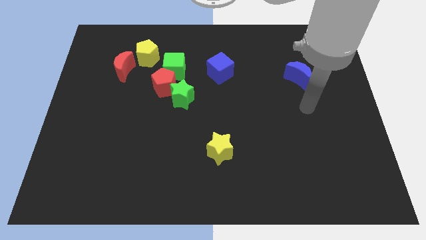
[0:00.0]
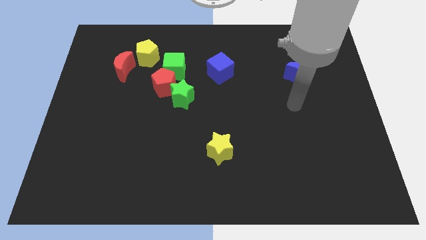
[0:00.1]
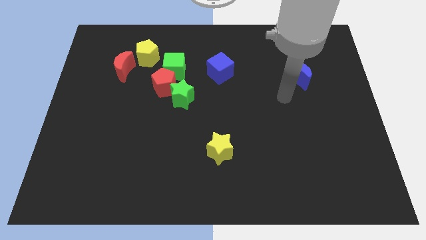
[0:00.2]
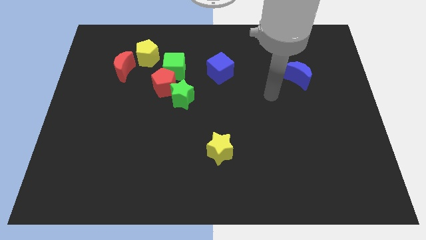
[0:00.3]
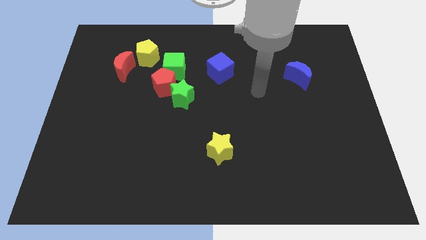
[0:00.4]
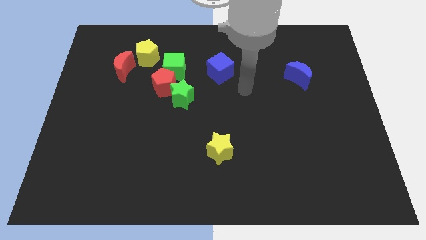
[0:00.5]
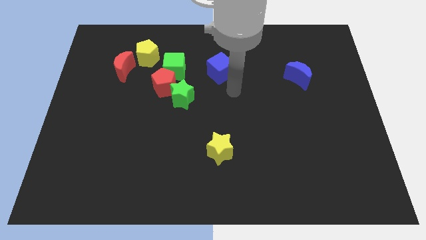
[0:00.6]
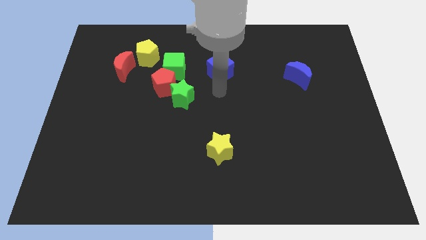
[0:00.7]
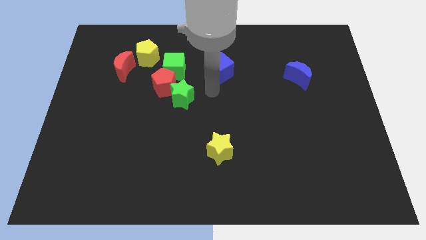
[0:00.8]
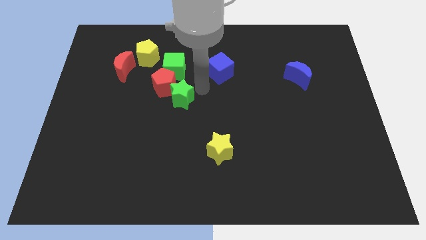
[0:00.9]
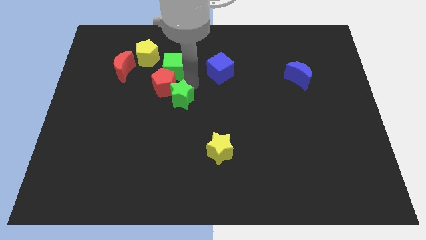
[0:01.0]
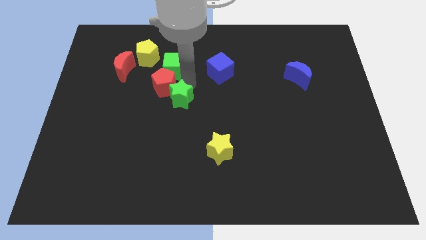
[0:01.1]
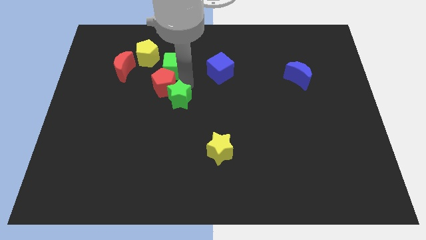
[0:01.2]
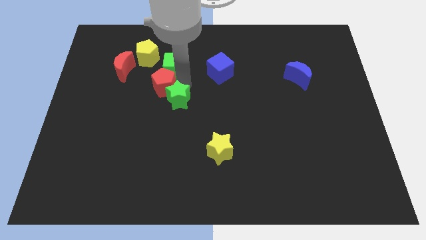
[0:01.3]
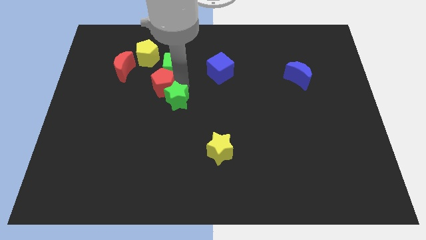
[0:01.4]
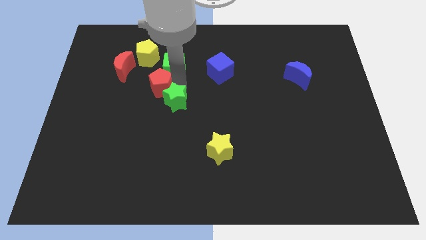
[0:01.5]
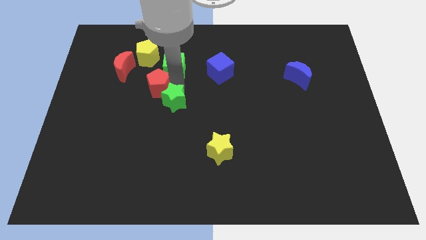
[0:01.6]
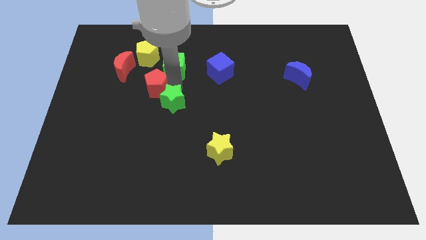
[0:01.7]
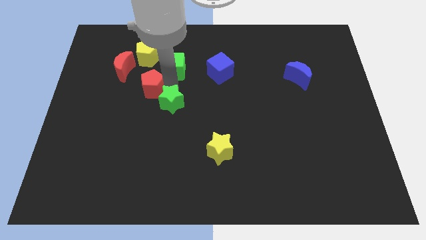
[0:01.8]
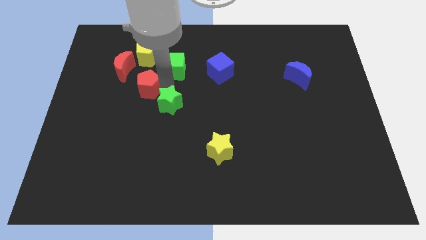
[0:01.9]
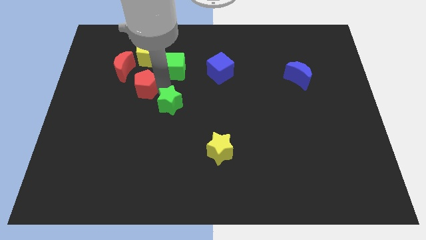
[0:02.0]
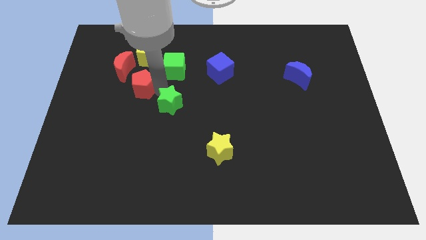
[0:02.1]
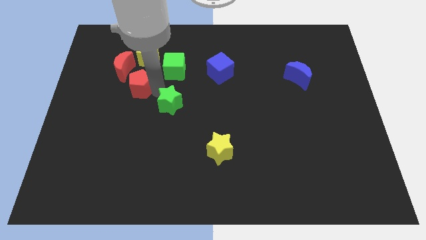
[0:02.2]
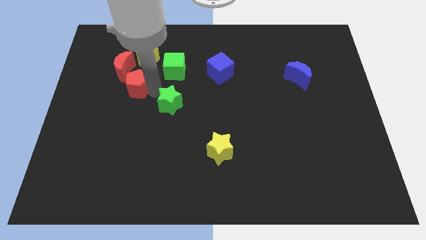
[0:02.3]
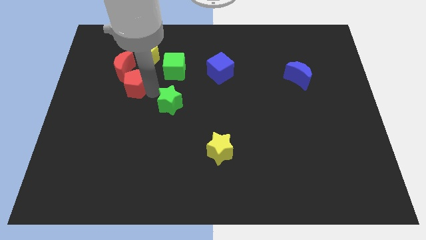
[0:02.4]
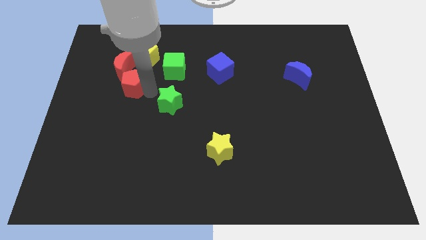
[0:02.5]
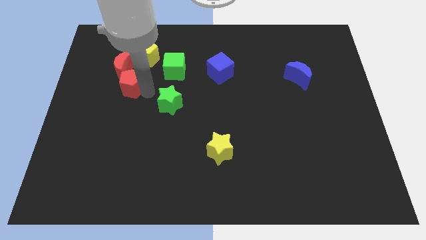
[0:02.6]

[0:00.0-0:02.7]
separate the red pentagon from the green cube and green star

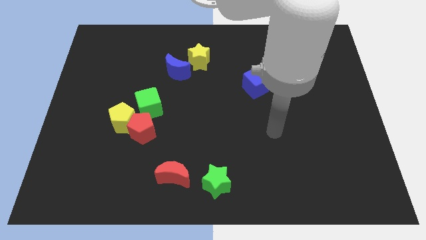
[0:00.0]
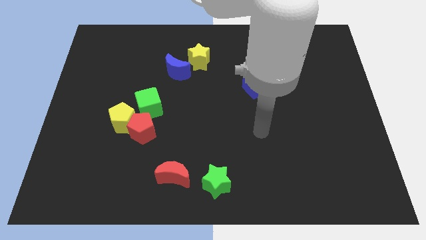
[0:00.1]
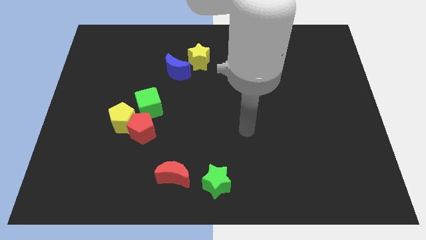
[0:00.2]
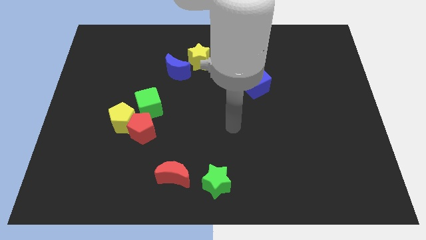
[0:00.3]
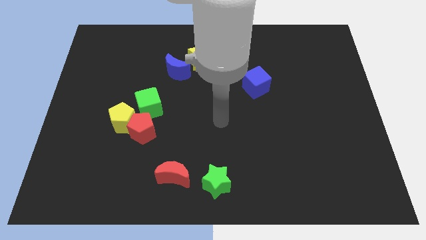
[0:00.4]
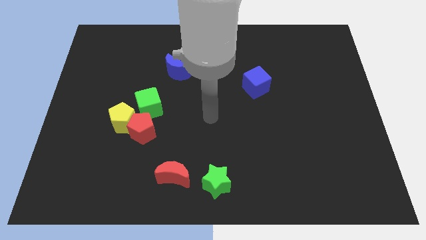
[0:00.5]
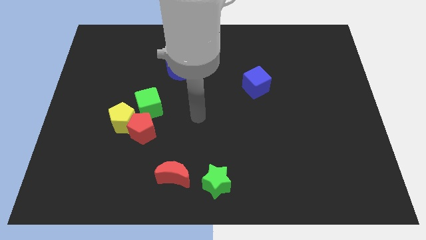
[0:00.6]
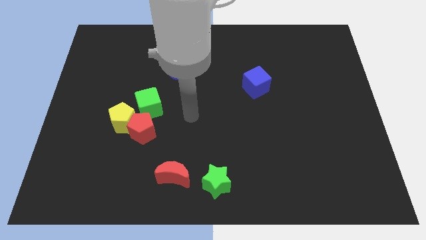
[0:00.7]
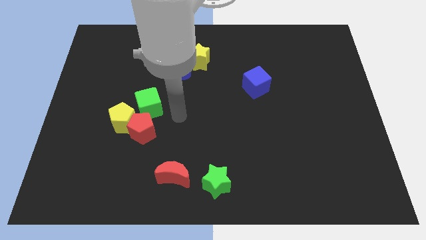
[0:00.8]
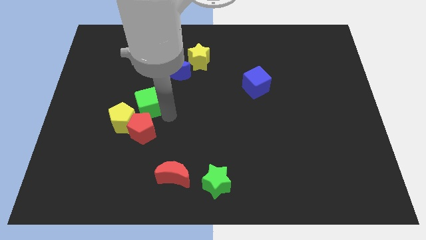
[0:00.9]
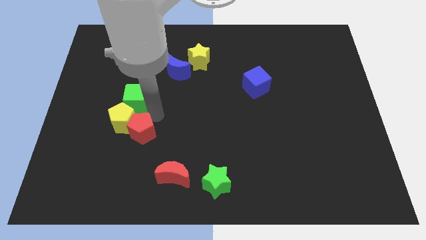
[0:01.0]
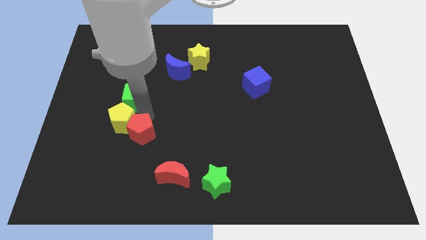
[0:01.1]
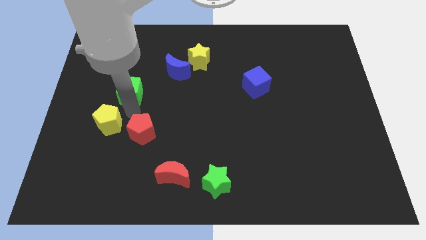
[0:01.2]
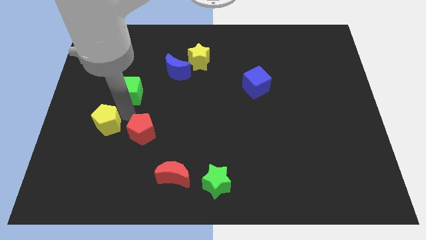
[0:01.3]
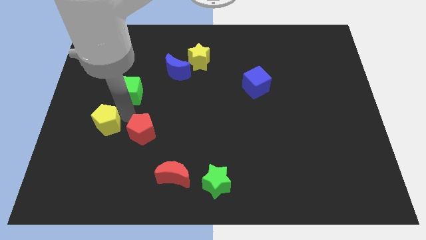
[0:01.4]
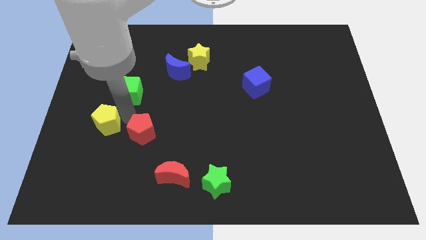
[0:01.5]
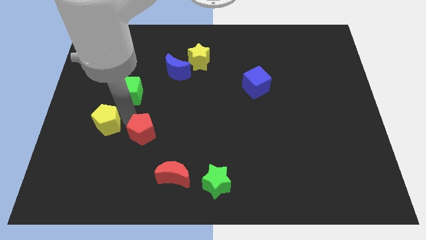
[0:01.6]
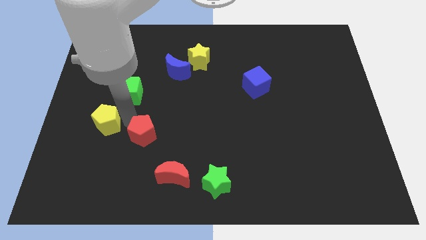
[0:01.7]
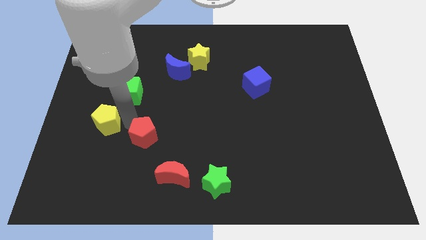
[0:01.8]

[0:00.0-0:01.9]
move the red pentagon away from the yellow pentagon and green cube

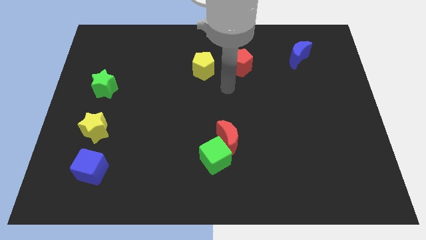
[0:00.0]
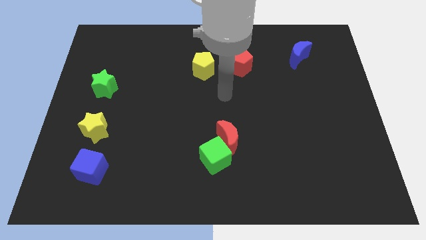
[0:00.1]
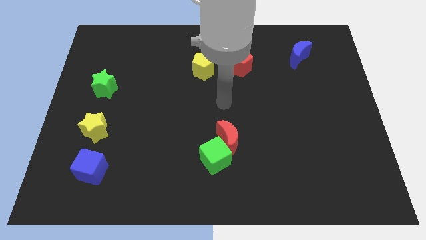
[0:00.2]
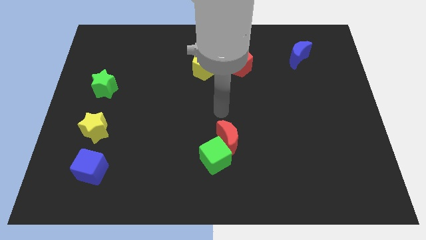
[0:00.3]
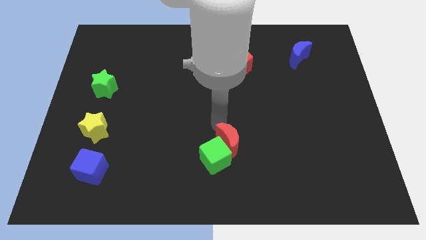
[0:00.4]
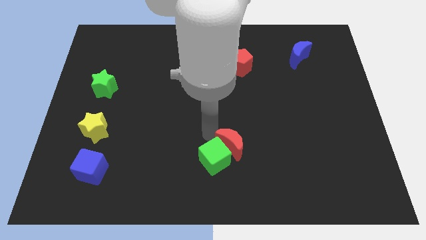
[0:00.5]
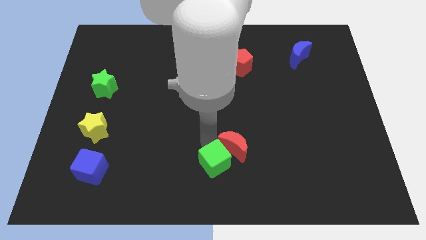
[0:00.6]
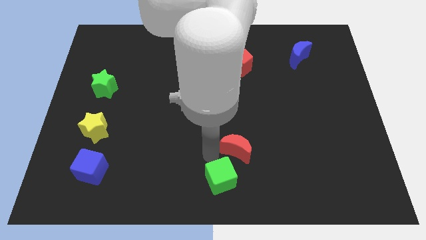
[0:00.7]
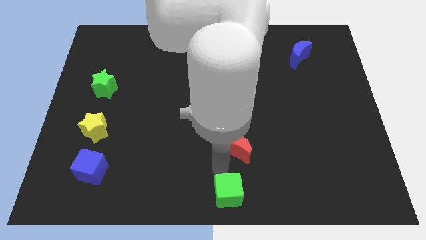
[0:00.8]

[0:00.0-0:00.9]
move the red moon away from the green cube

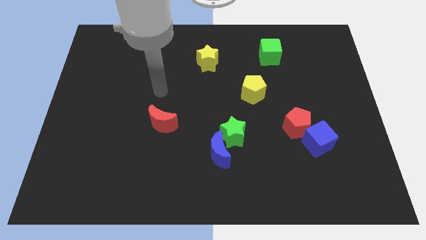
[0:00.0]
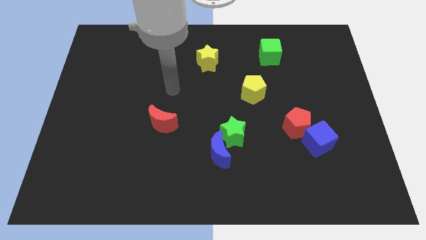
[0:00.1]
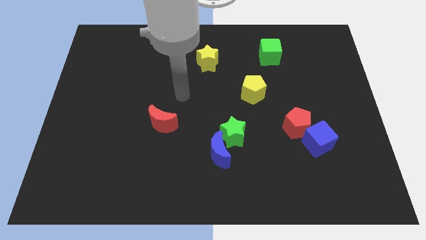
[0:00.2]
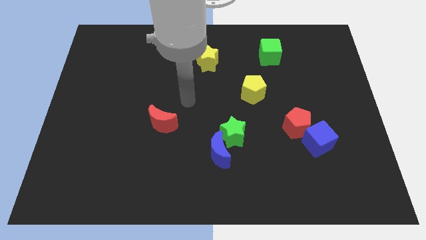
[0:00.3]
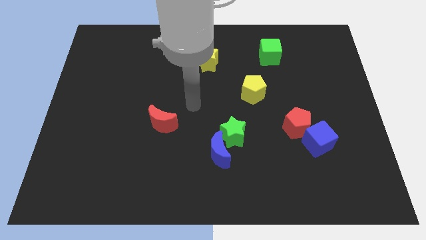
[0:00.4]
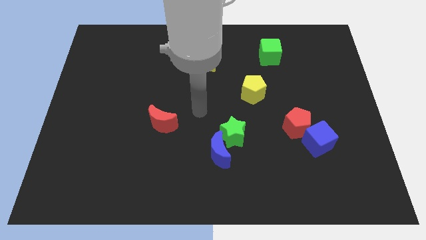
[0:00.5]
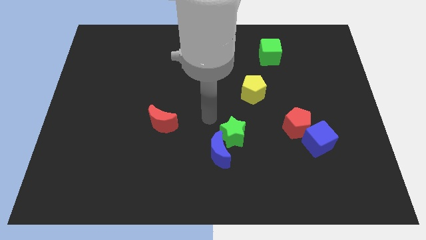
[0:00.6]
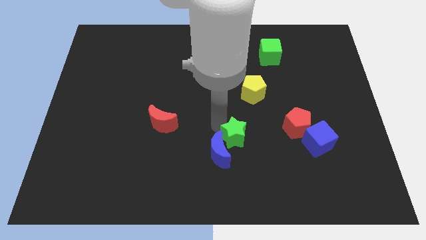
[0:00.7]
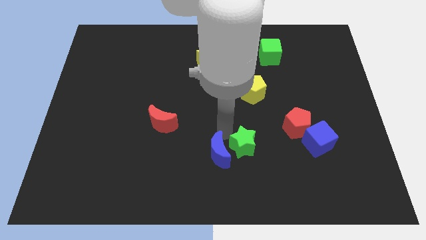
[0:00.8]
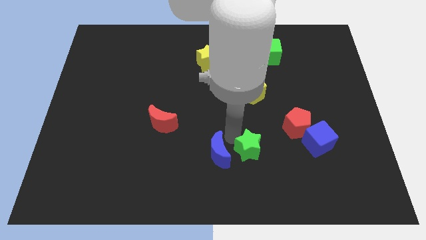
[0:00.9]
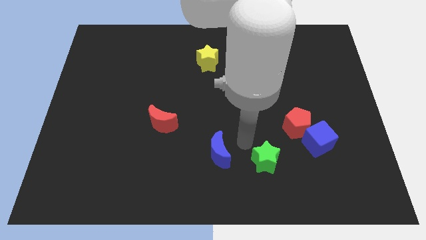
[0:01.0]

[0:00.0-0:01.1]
move the blue moon away from the green star

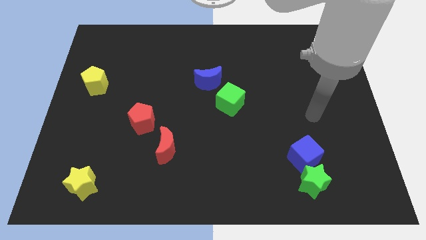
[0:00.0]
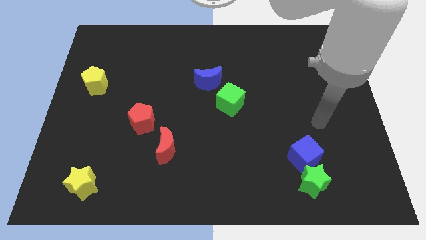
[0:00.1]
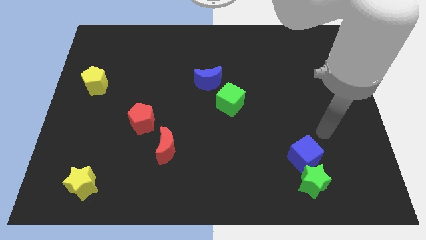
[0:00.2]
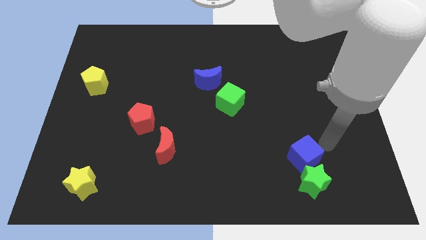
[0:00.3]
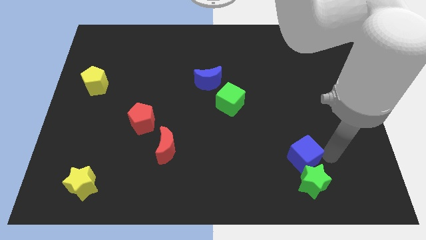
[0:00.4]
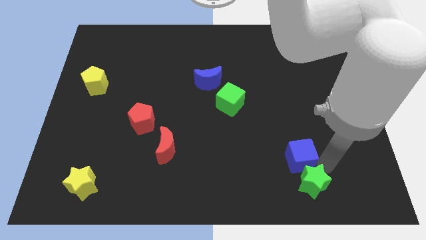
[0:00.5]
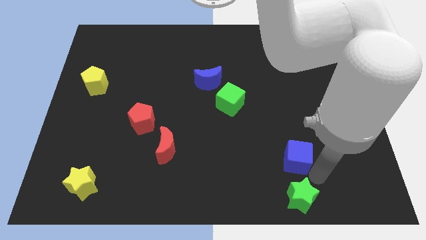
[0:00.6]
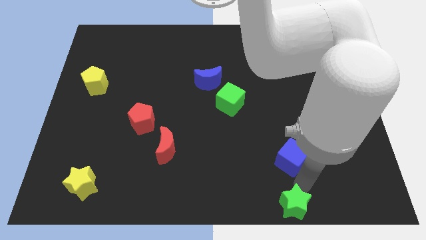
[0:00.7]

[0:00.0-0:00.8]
move the blue cube away from the green star

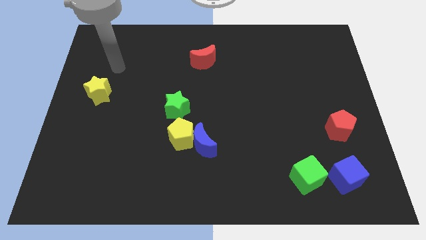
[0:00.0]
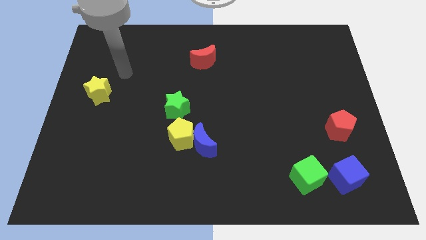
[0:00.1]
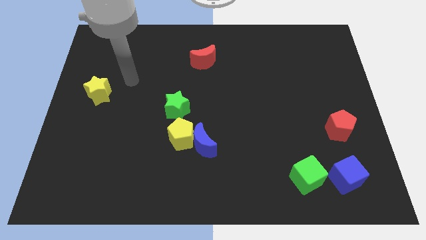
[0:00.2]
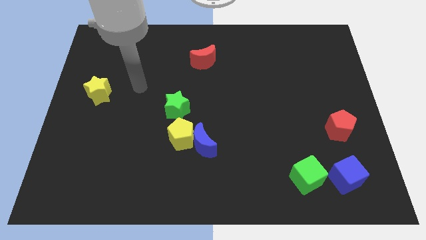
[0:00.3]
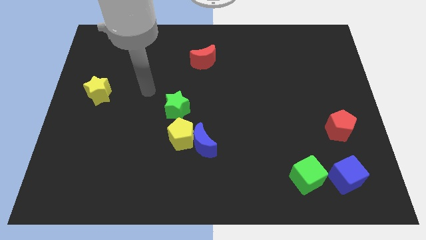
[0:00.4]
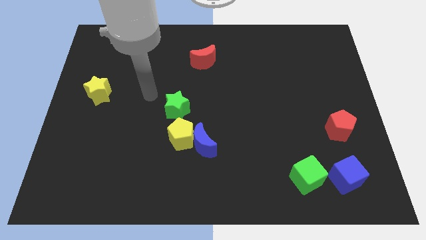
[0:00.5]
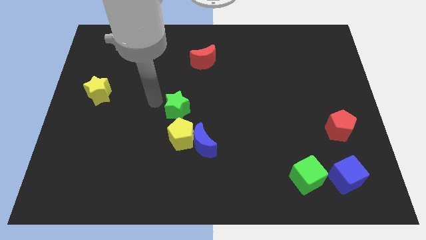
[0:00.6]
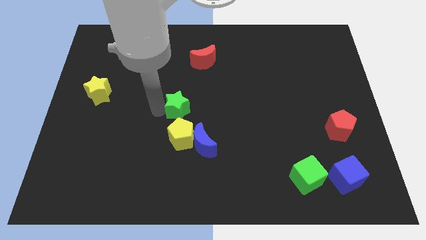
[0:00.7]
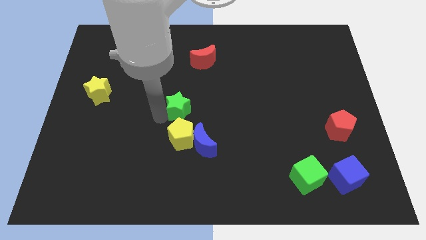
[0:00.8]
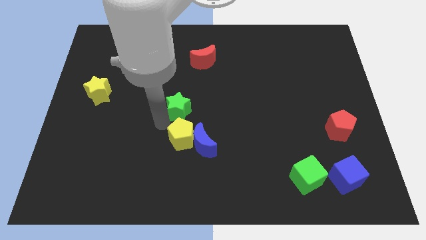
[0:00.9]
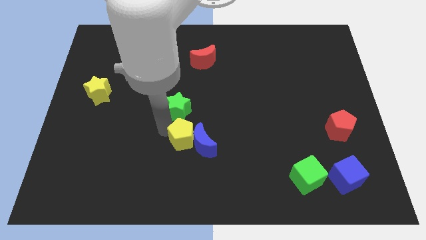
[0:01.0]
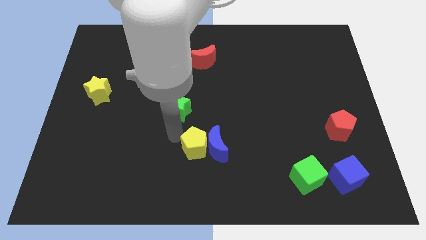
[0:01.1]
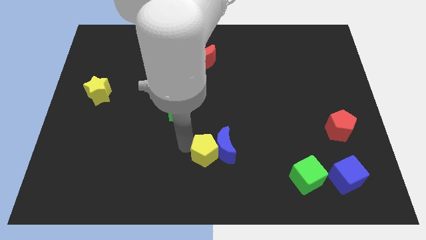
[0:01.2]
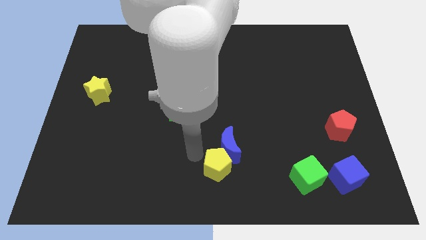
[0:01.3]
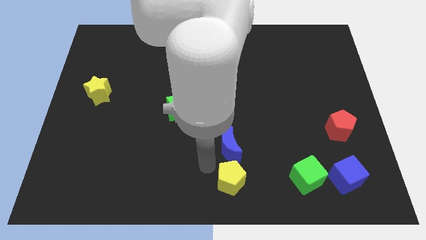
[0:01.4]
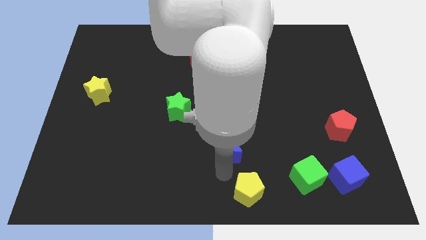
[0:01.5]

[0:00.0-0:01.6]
pull the blue moon apart from the yellow pentagon

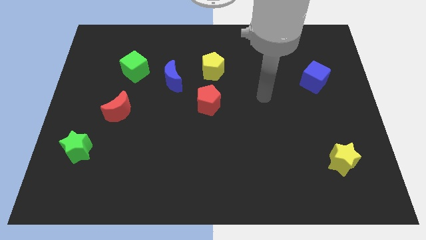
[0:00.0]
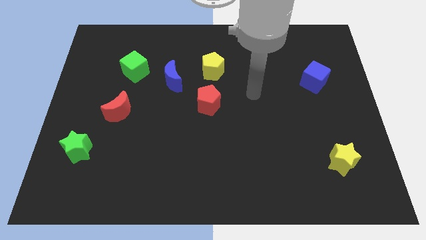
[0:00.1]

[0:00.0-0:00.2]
move the blue moon away from the green cube
